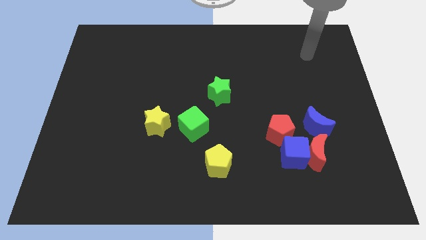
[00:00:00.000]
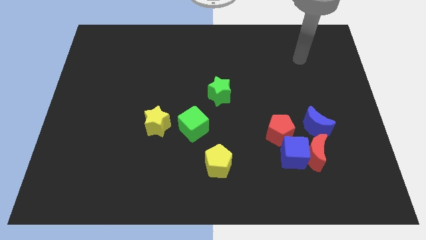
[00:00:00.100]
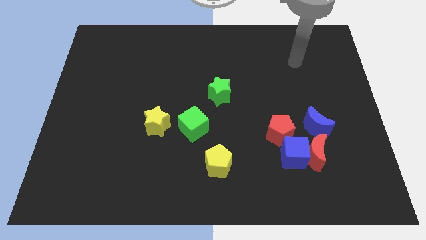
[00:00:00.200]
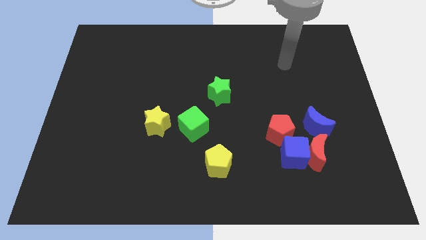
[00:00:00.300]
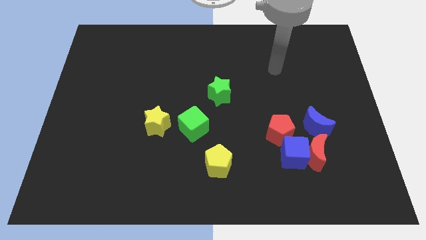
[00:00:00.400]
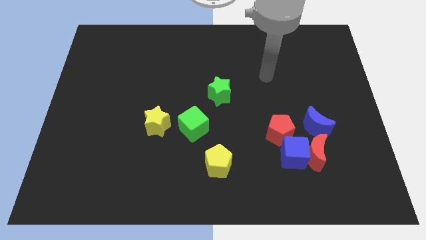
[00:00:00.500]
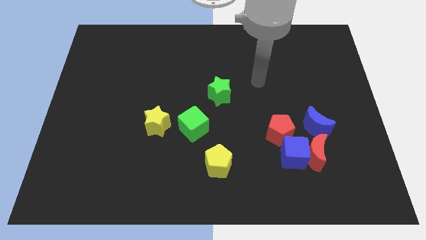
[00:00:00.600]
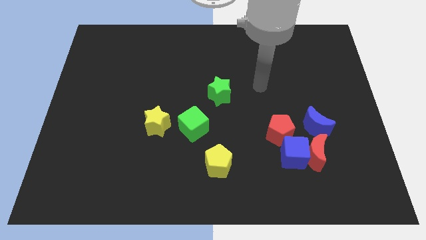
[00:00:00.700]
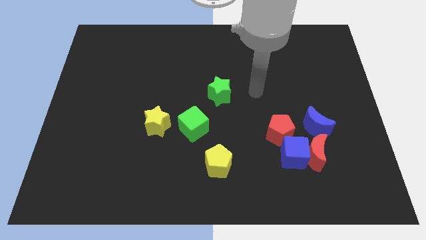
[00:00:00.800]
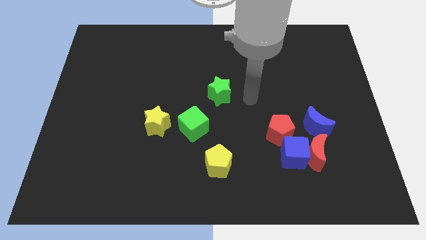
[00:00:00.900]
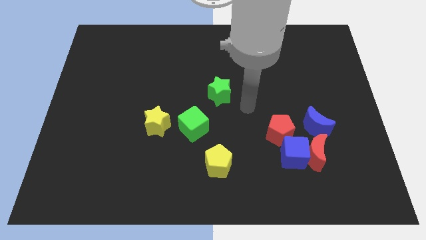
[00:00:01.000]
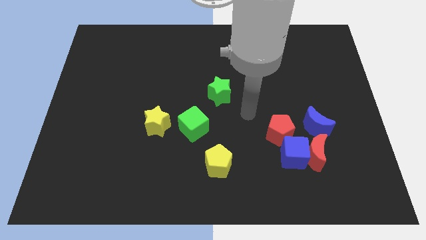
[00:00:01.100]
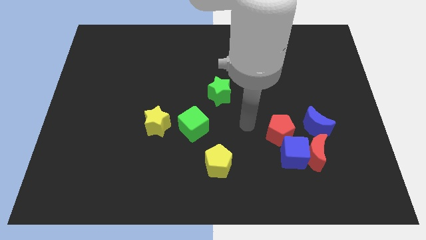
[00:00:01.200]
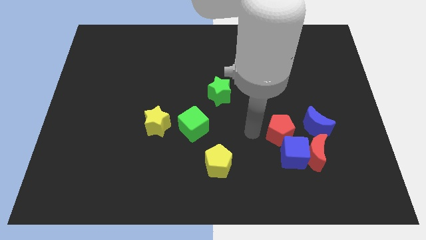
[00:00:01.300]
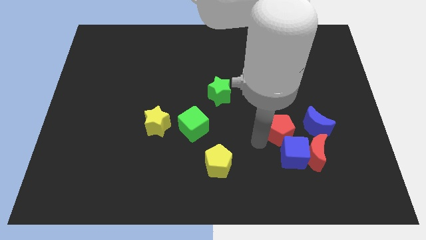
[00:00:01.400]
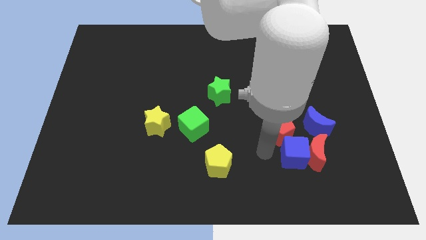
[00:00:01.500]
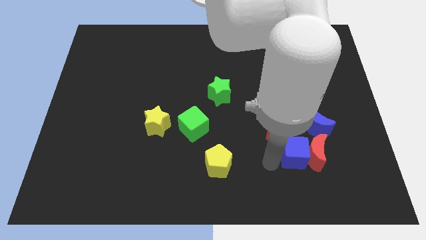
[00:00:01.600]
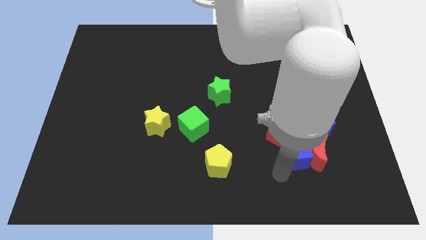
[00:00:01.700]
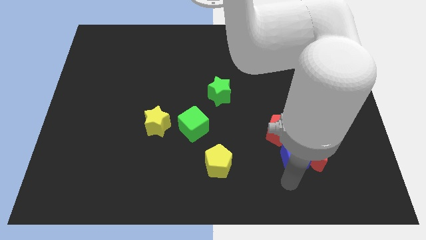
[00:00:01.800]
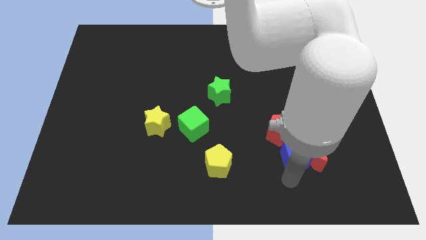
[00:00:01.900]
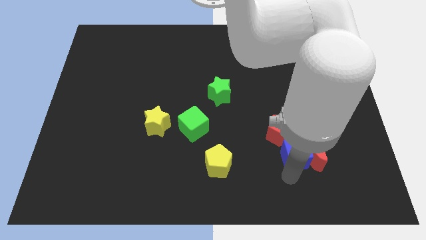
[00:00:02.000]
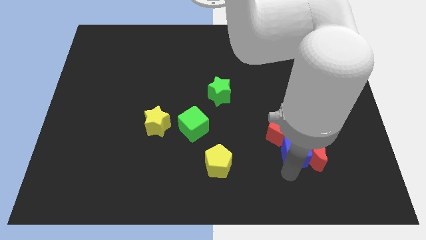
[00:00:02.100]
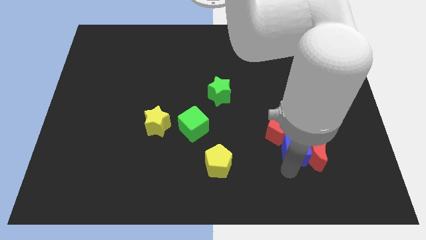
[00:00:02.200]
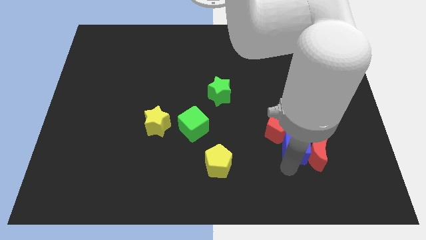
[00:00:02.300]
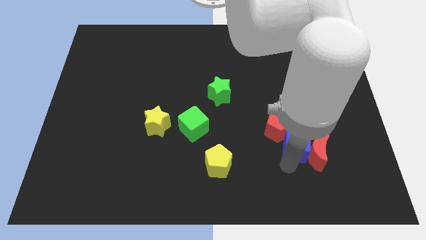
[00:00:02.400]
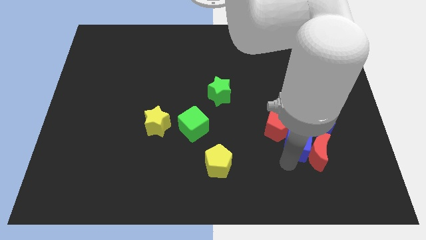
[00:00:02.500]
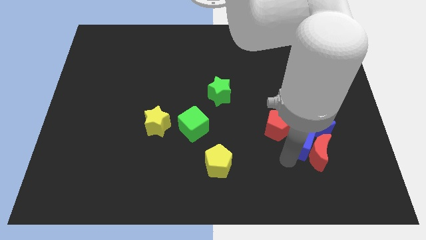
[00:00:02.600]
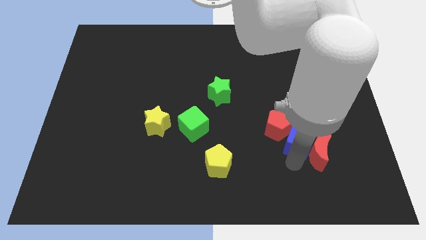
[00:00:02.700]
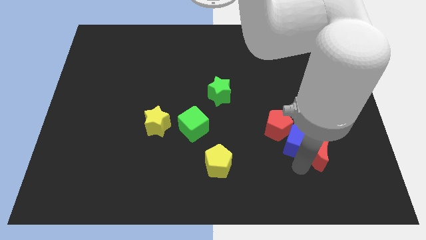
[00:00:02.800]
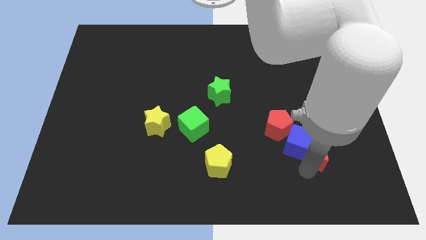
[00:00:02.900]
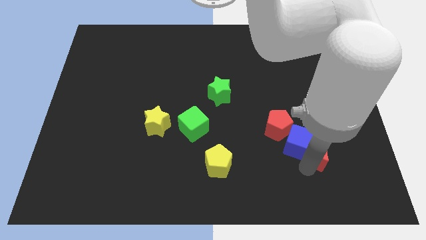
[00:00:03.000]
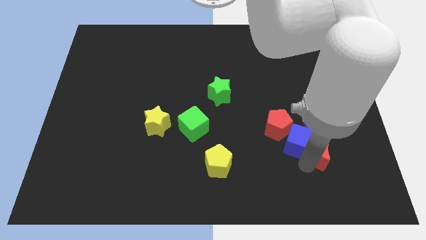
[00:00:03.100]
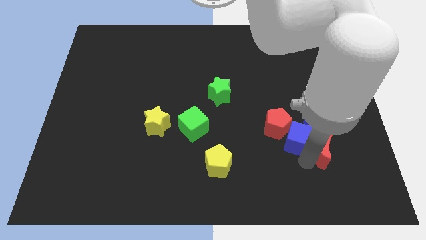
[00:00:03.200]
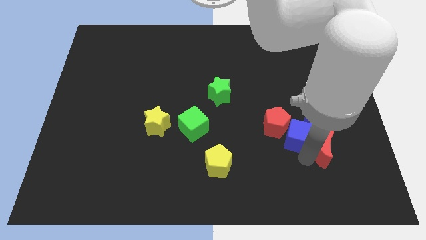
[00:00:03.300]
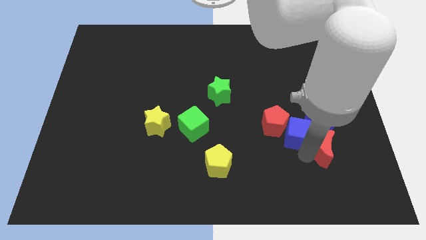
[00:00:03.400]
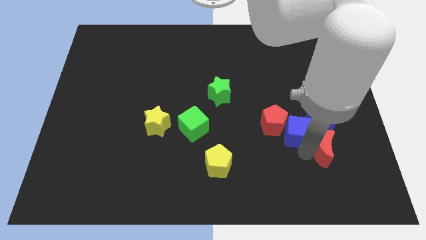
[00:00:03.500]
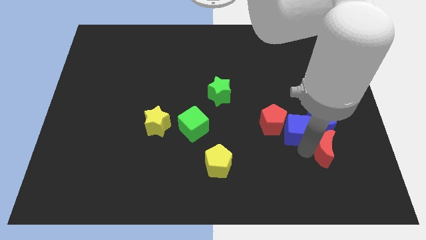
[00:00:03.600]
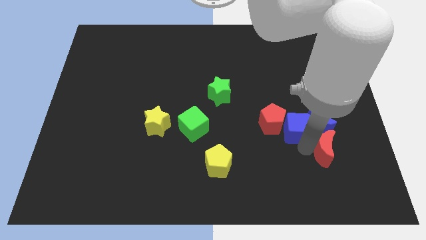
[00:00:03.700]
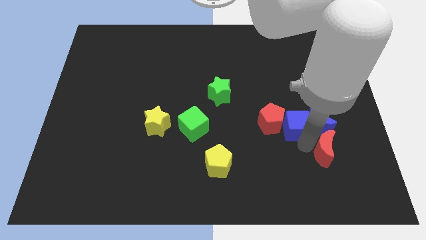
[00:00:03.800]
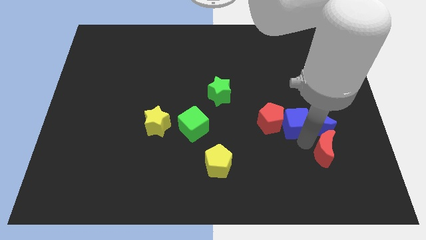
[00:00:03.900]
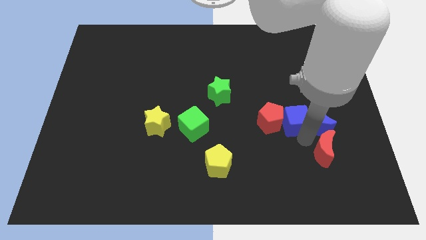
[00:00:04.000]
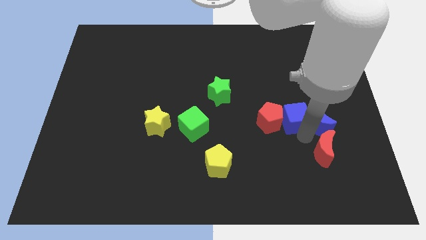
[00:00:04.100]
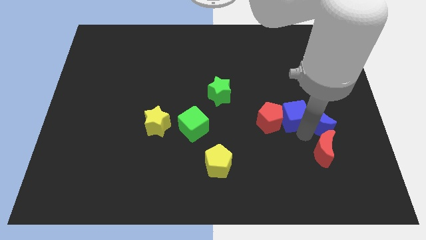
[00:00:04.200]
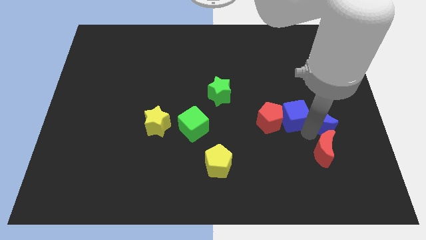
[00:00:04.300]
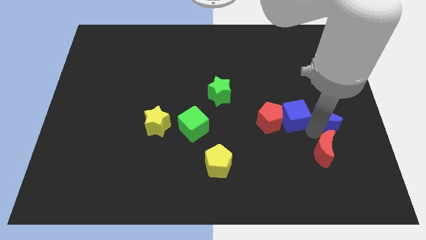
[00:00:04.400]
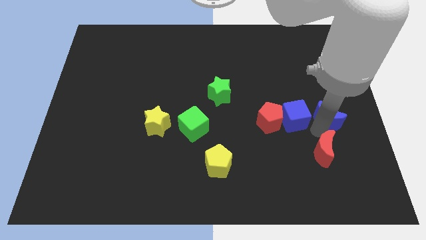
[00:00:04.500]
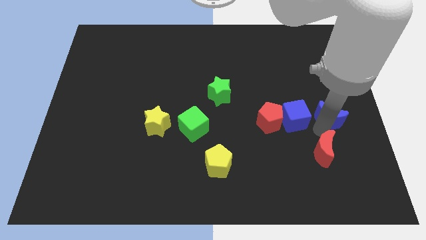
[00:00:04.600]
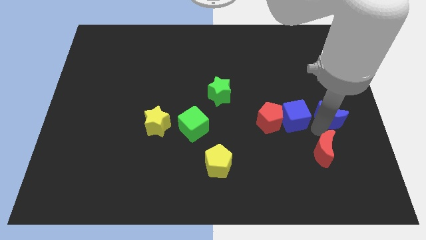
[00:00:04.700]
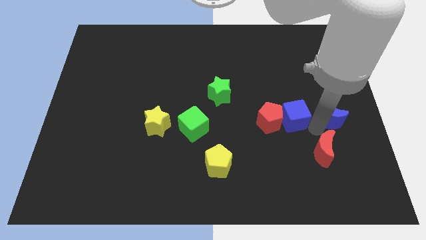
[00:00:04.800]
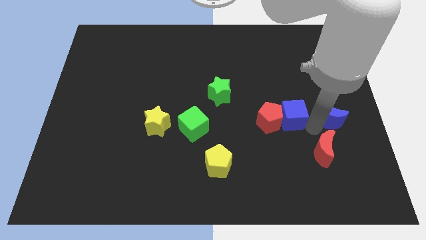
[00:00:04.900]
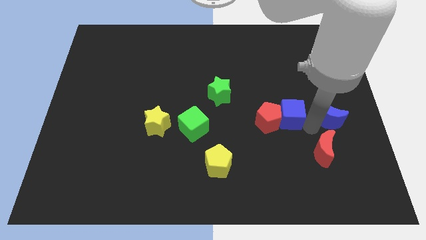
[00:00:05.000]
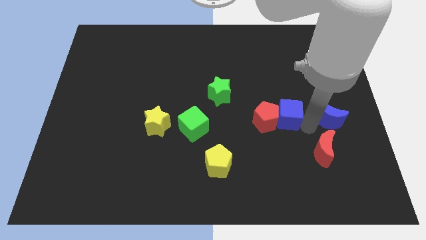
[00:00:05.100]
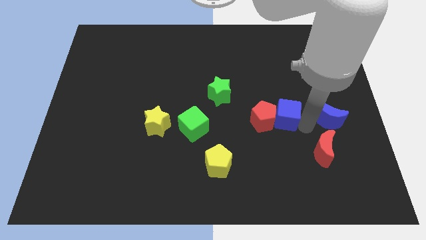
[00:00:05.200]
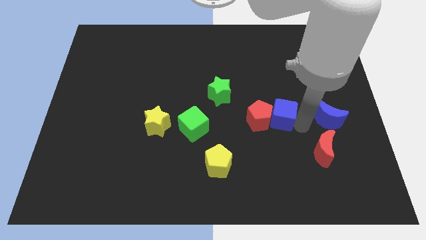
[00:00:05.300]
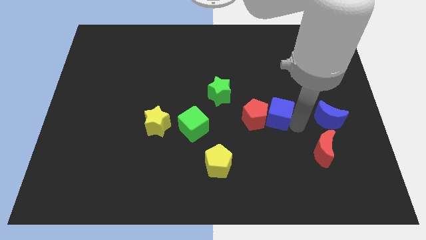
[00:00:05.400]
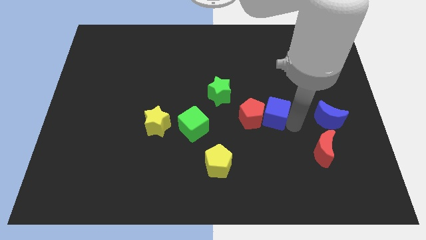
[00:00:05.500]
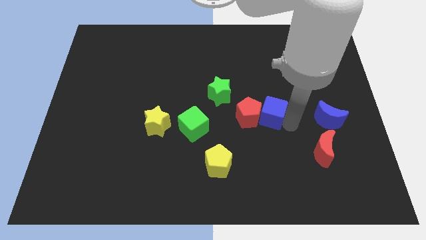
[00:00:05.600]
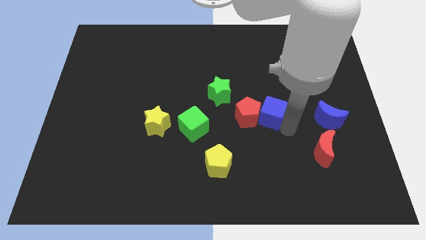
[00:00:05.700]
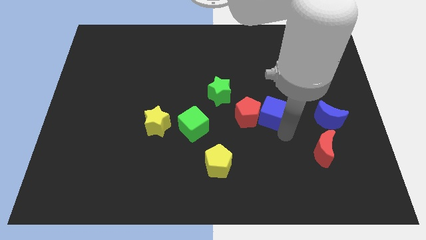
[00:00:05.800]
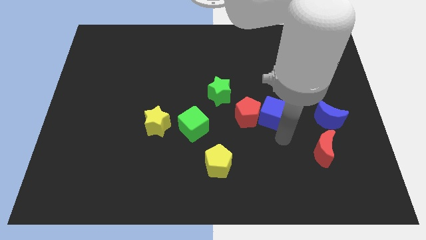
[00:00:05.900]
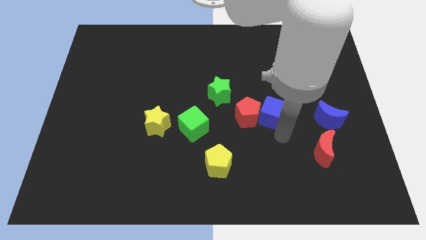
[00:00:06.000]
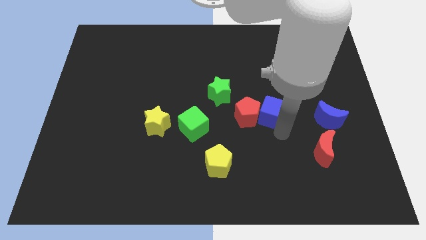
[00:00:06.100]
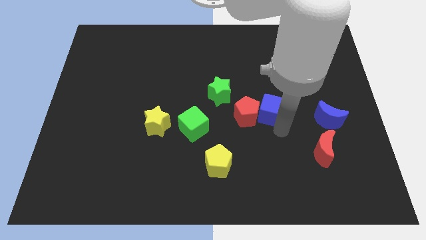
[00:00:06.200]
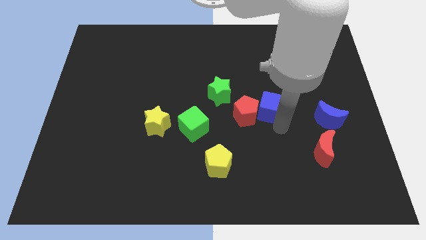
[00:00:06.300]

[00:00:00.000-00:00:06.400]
move the blue cube right of the green star
